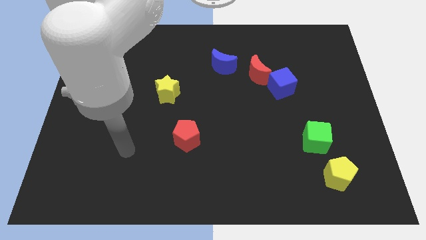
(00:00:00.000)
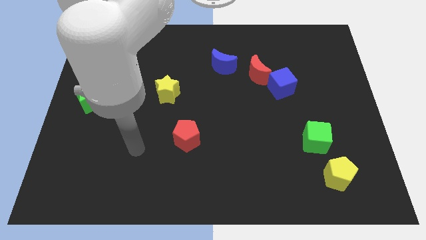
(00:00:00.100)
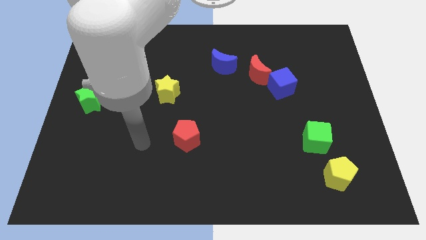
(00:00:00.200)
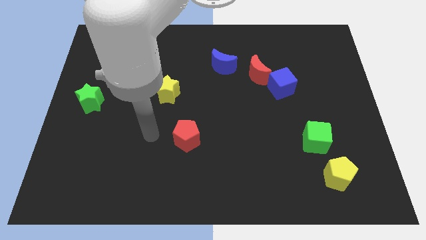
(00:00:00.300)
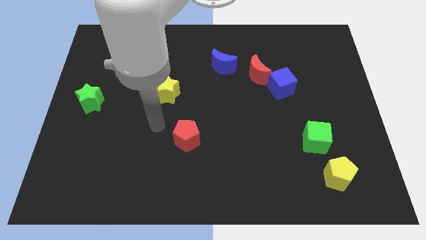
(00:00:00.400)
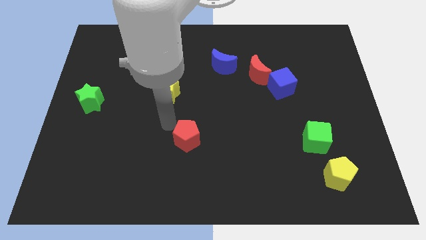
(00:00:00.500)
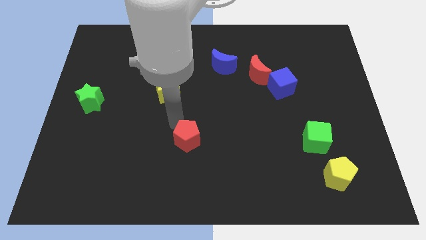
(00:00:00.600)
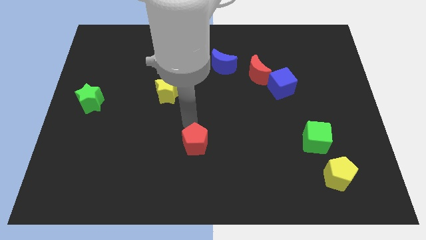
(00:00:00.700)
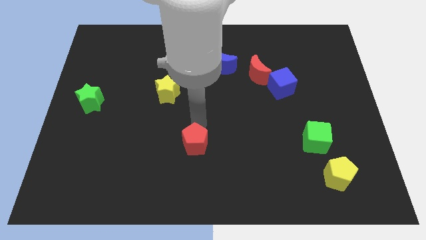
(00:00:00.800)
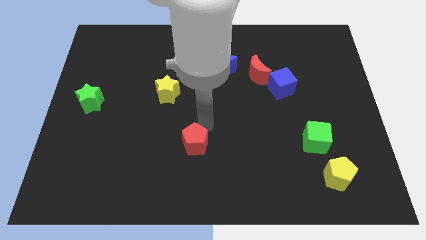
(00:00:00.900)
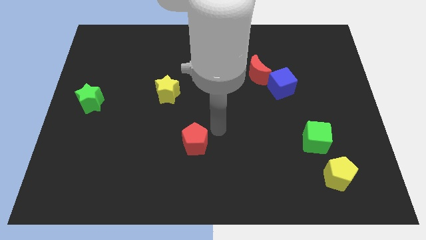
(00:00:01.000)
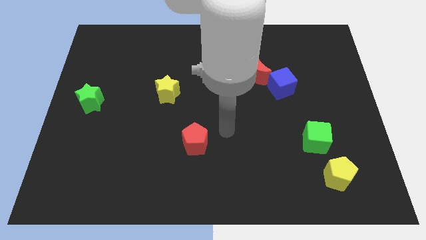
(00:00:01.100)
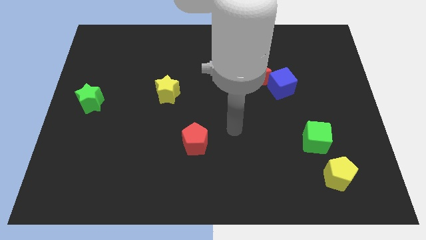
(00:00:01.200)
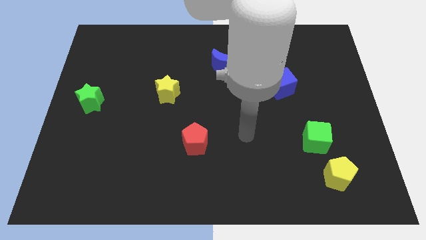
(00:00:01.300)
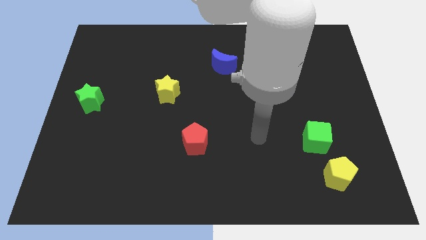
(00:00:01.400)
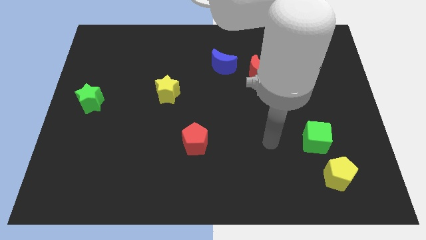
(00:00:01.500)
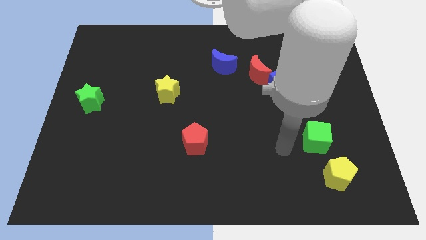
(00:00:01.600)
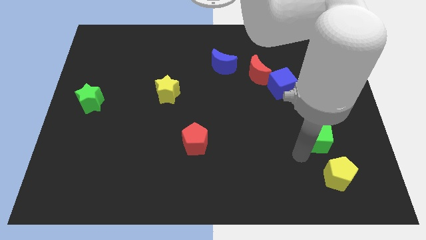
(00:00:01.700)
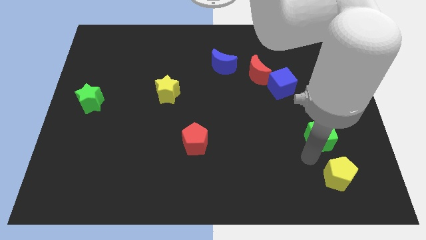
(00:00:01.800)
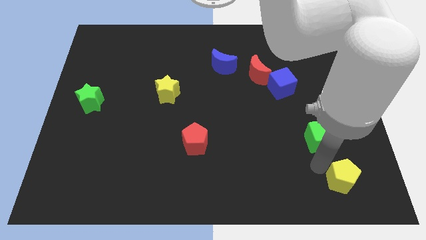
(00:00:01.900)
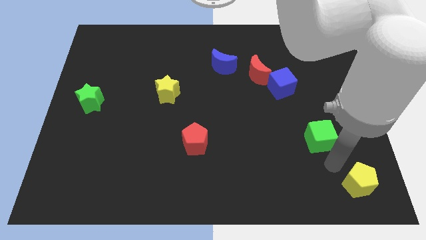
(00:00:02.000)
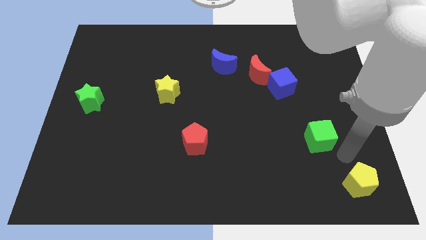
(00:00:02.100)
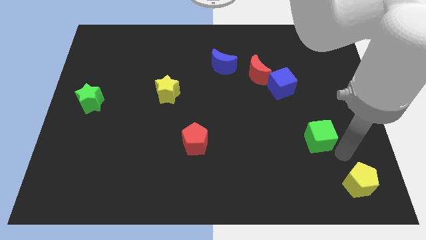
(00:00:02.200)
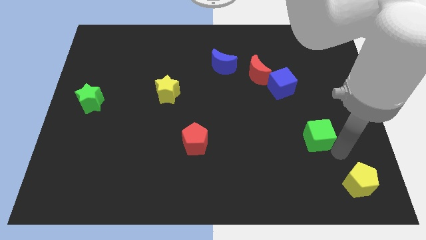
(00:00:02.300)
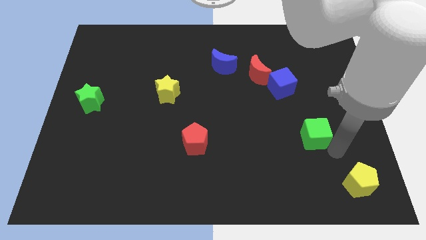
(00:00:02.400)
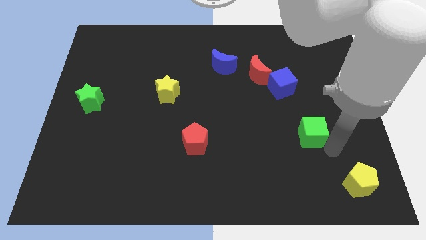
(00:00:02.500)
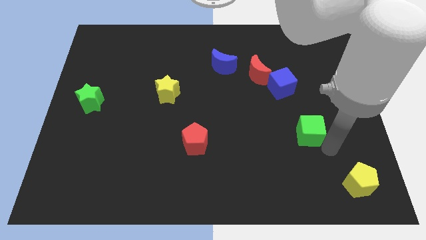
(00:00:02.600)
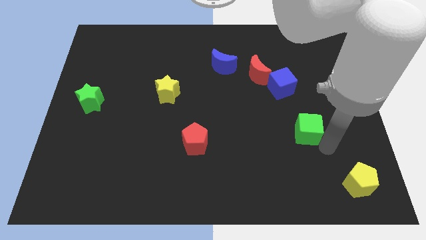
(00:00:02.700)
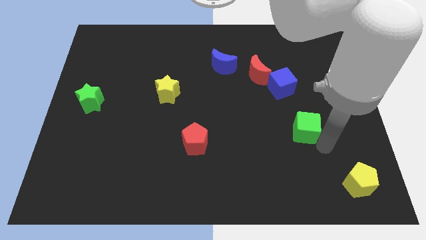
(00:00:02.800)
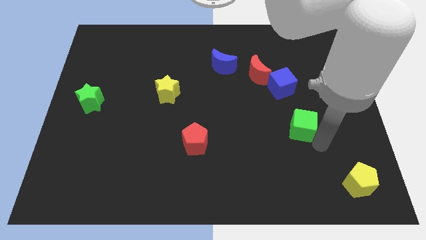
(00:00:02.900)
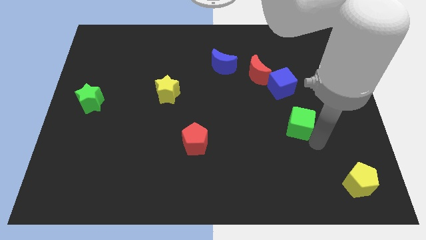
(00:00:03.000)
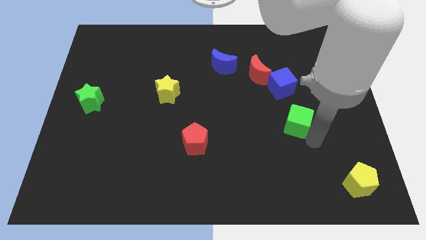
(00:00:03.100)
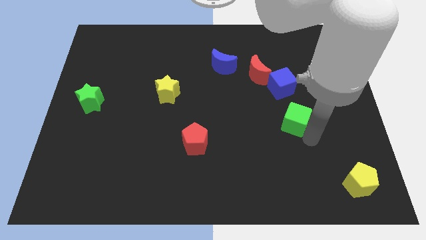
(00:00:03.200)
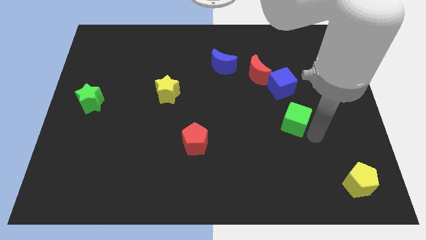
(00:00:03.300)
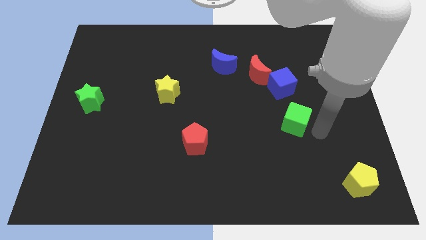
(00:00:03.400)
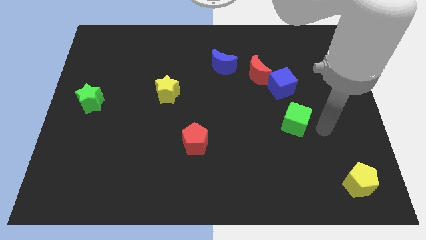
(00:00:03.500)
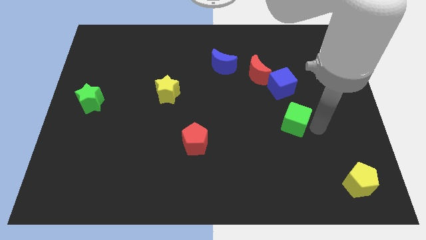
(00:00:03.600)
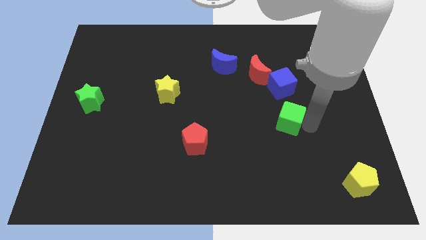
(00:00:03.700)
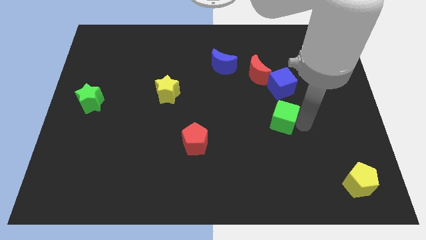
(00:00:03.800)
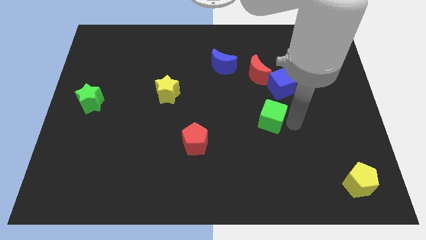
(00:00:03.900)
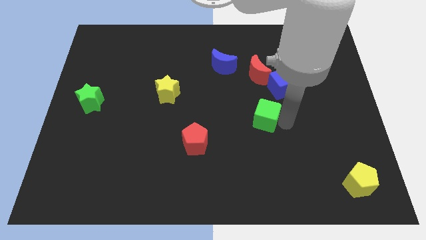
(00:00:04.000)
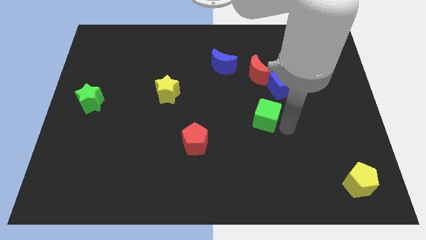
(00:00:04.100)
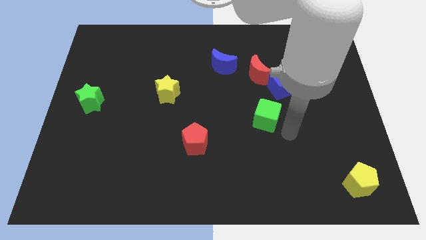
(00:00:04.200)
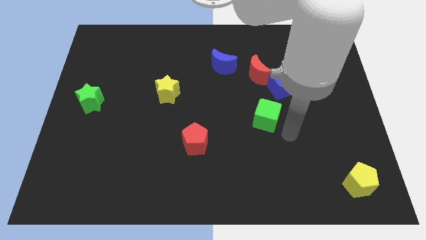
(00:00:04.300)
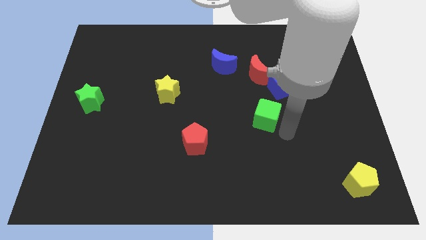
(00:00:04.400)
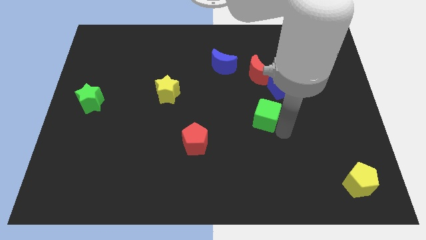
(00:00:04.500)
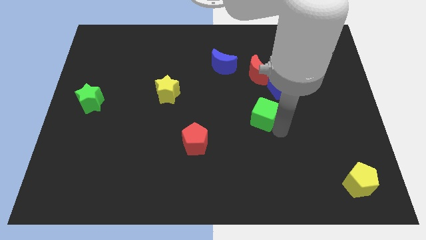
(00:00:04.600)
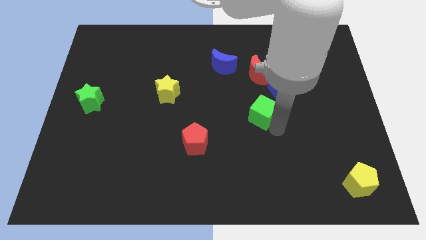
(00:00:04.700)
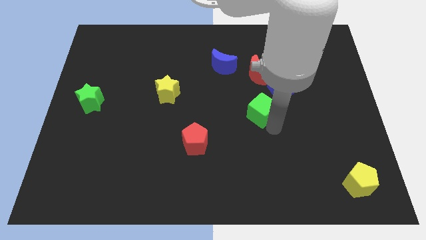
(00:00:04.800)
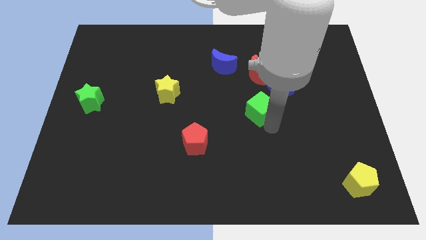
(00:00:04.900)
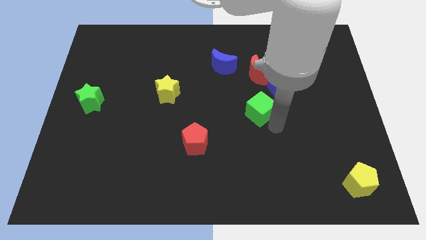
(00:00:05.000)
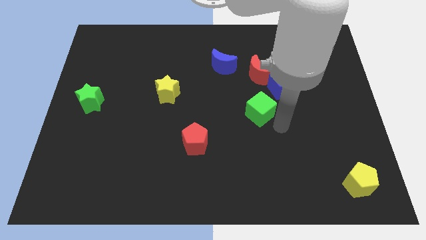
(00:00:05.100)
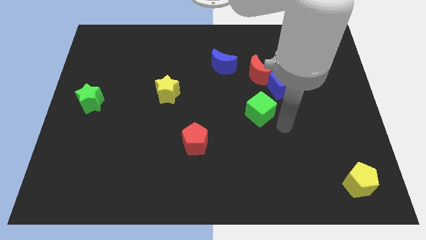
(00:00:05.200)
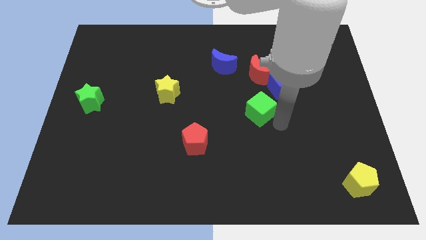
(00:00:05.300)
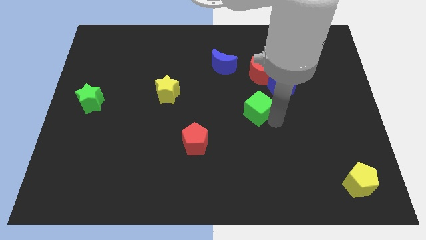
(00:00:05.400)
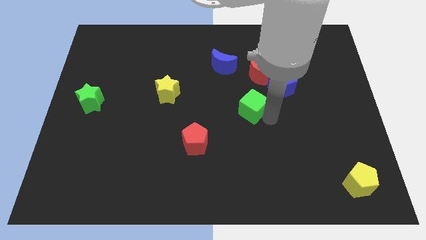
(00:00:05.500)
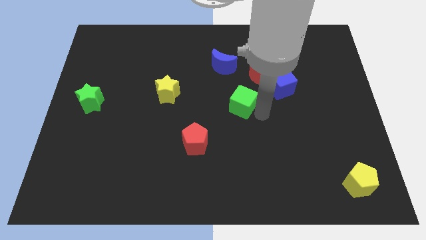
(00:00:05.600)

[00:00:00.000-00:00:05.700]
push the green cube below the blue moon
